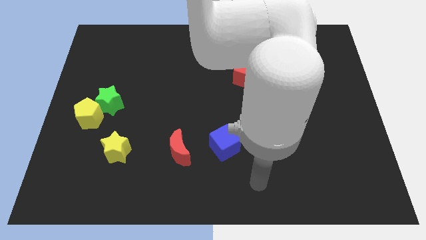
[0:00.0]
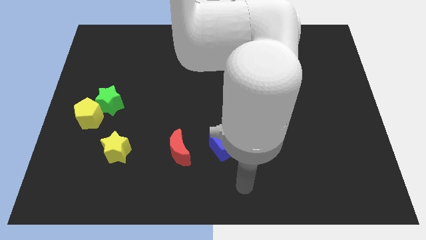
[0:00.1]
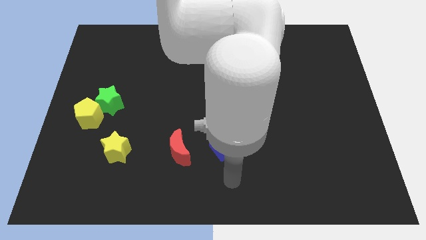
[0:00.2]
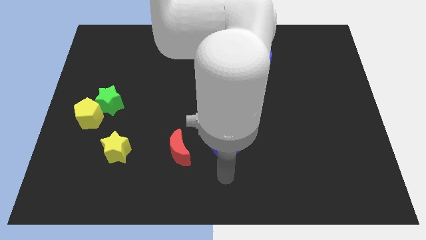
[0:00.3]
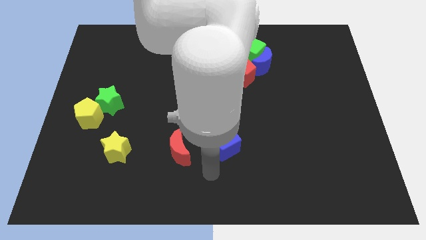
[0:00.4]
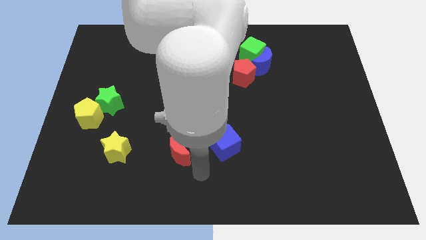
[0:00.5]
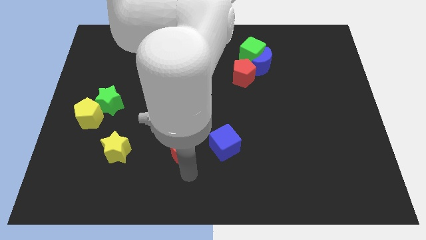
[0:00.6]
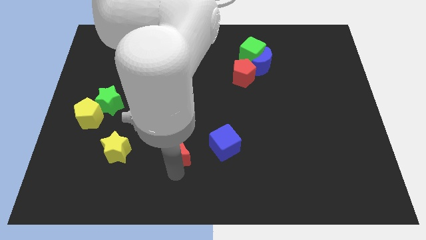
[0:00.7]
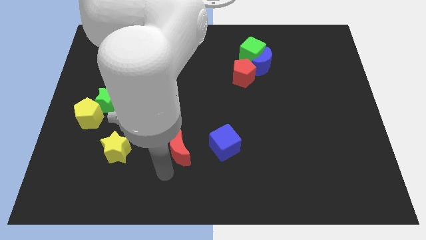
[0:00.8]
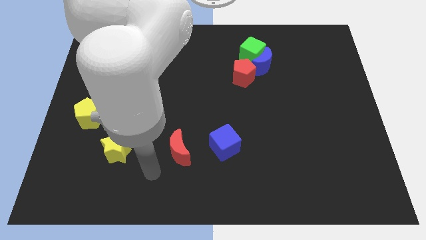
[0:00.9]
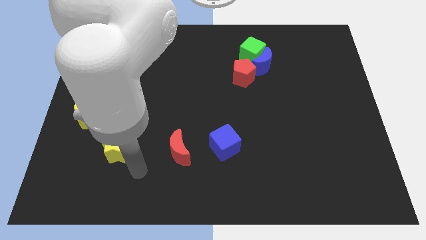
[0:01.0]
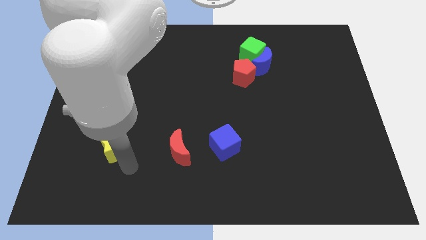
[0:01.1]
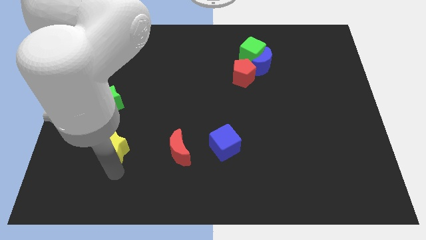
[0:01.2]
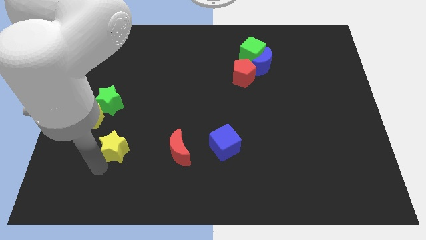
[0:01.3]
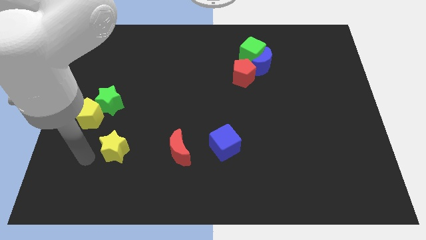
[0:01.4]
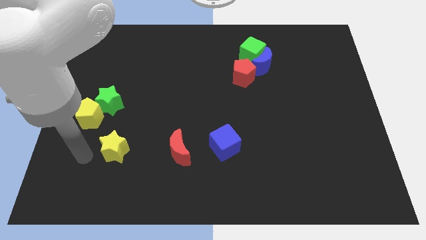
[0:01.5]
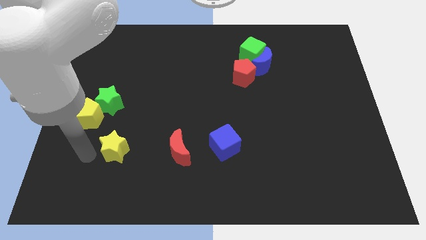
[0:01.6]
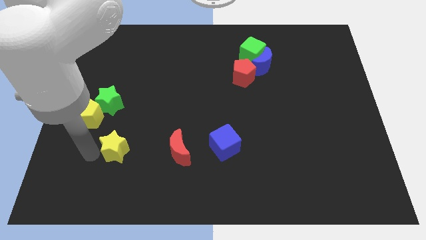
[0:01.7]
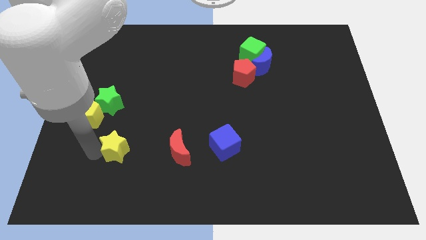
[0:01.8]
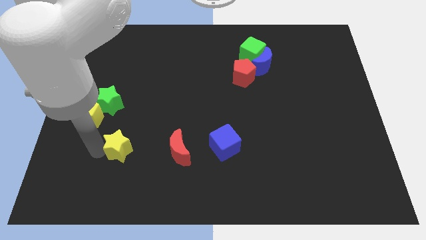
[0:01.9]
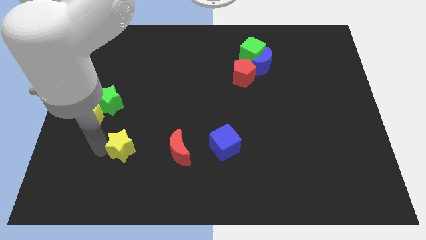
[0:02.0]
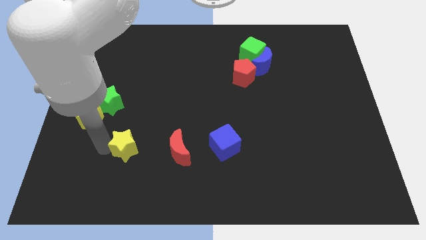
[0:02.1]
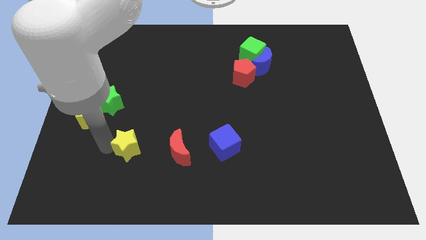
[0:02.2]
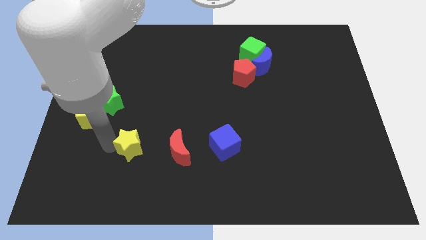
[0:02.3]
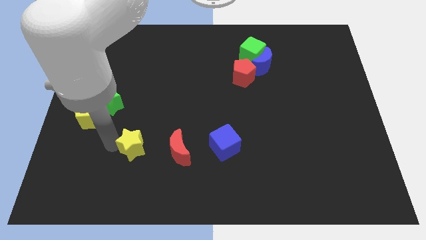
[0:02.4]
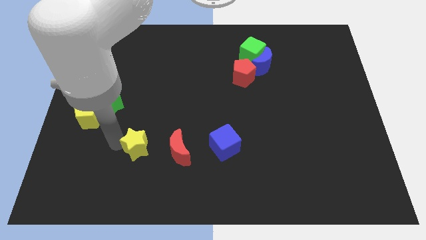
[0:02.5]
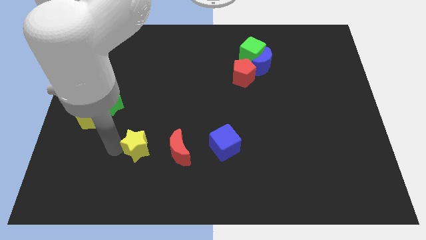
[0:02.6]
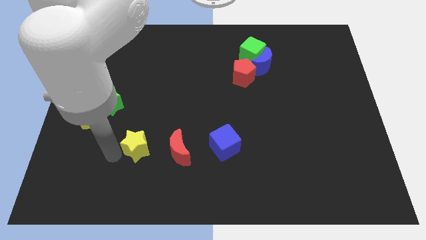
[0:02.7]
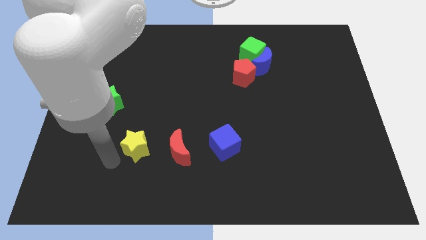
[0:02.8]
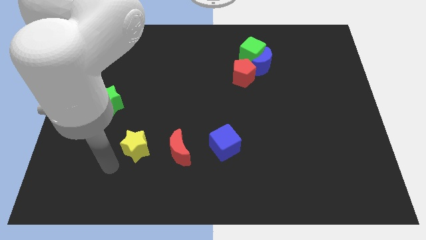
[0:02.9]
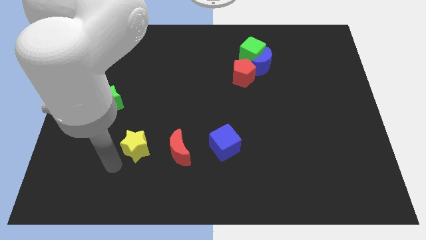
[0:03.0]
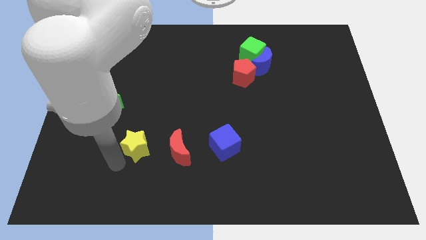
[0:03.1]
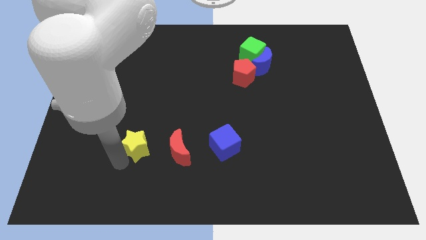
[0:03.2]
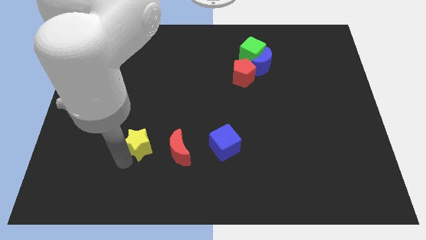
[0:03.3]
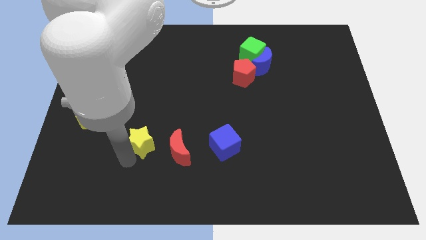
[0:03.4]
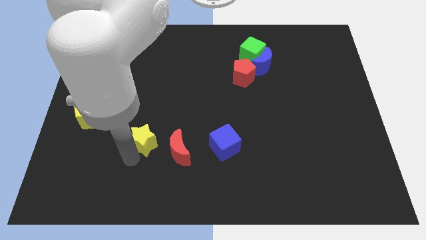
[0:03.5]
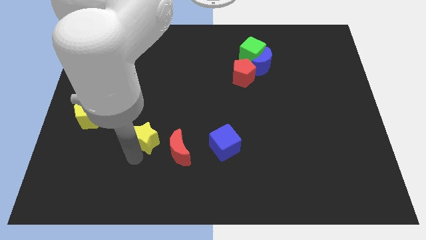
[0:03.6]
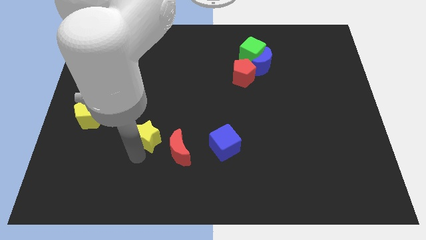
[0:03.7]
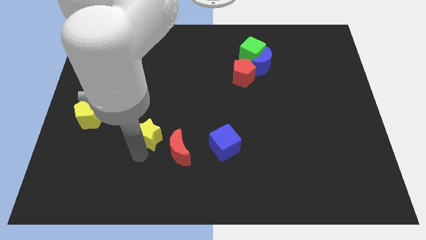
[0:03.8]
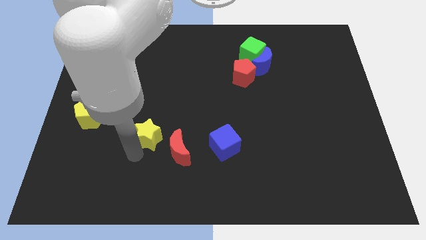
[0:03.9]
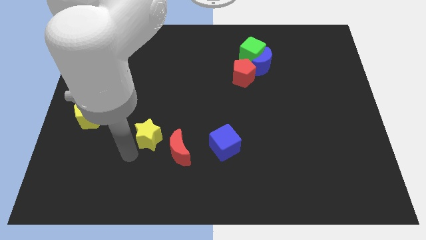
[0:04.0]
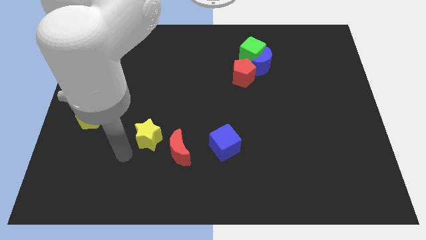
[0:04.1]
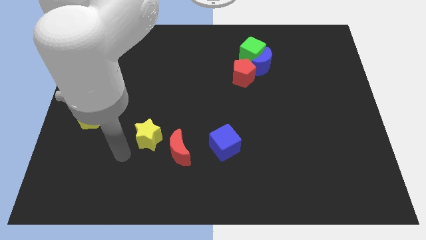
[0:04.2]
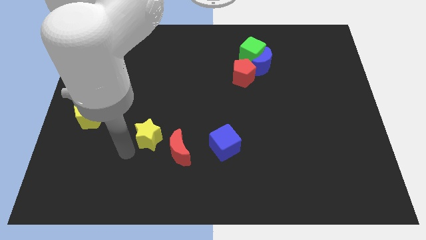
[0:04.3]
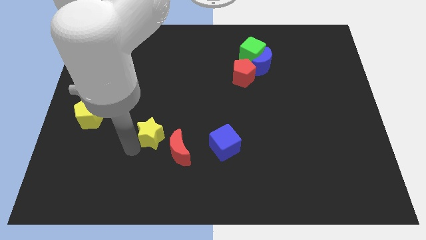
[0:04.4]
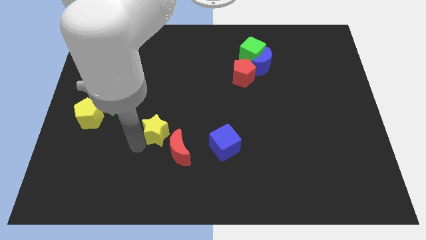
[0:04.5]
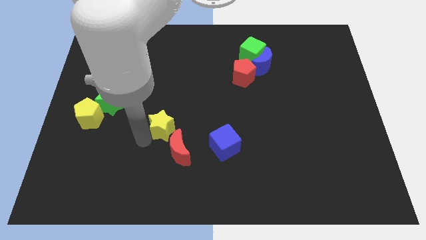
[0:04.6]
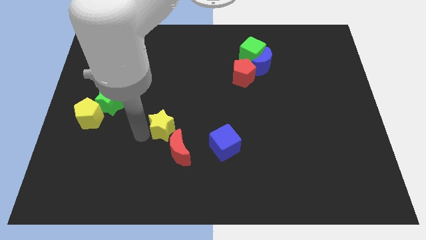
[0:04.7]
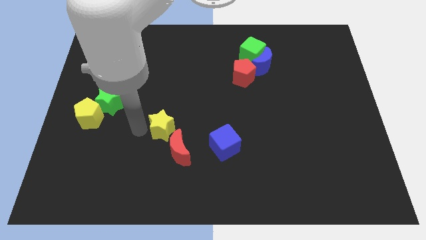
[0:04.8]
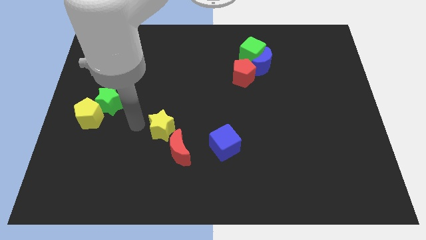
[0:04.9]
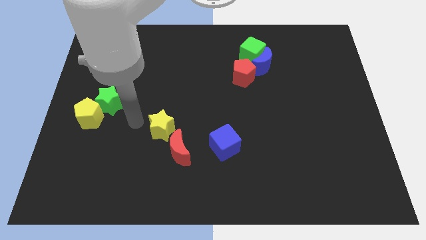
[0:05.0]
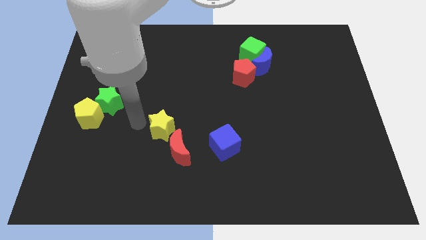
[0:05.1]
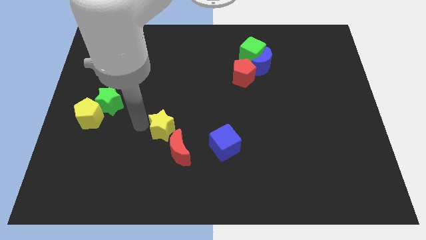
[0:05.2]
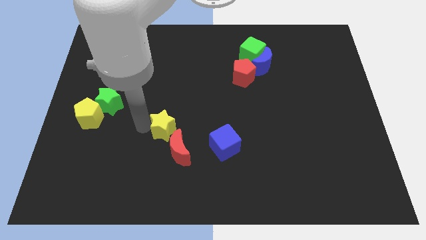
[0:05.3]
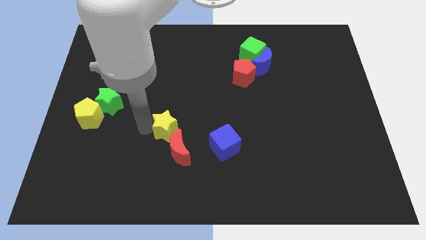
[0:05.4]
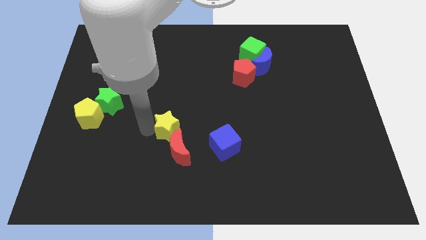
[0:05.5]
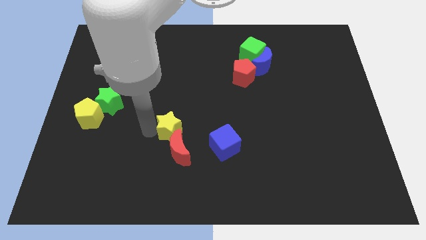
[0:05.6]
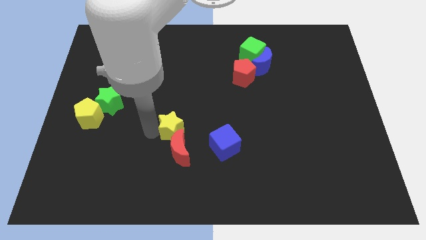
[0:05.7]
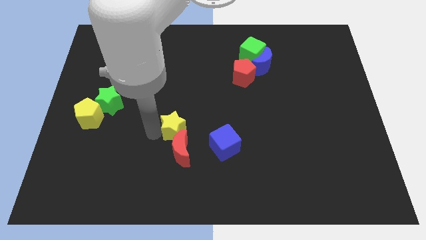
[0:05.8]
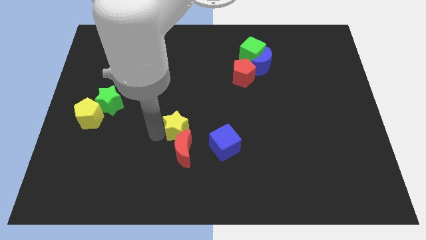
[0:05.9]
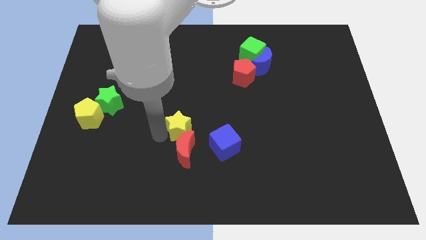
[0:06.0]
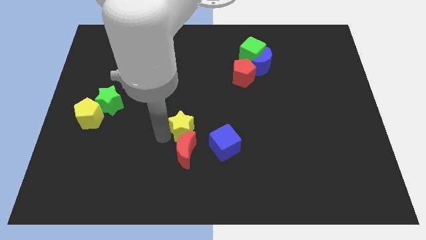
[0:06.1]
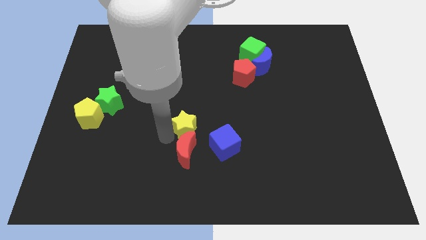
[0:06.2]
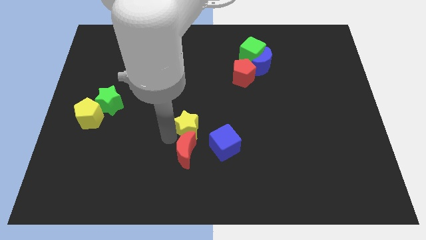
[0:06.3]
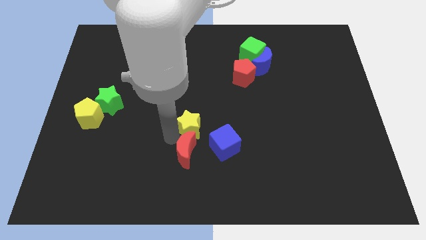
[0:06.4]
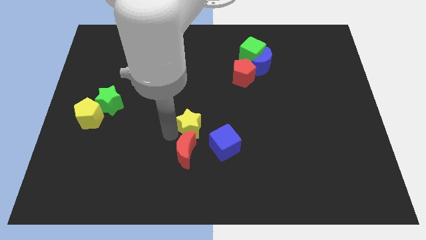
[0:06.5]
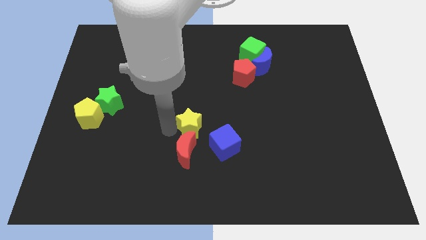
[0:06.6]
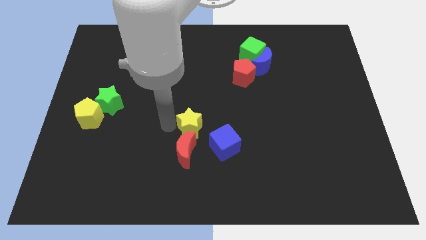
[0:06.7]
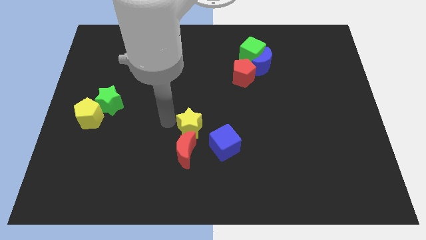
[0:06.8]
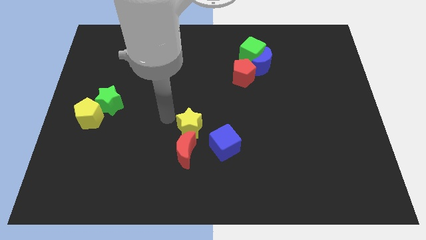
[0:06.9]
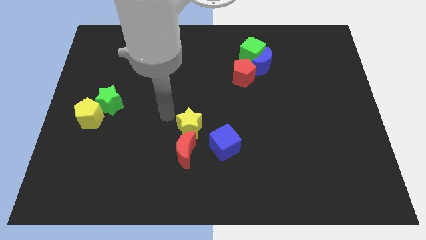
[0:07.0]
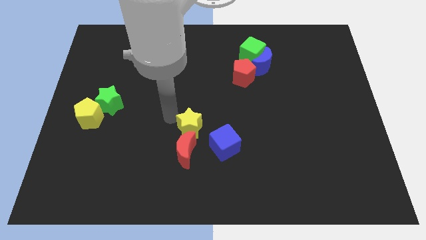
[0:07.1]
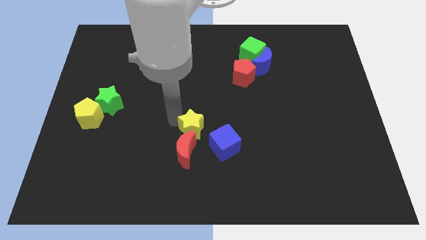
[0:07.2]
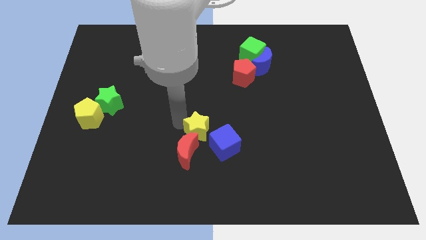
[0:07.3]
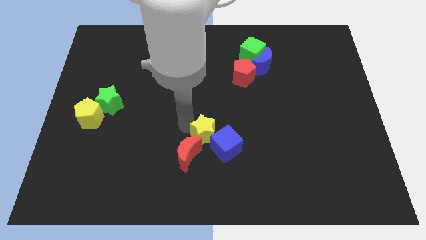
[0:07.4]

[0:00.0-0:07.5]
push the yellow star towards the blue cube

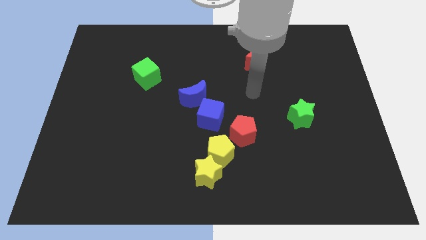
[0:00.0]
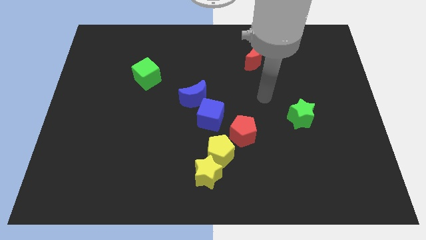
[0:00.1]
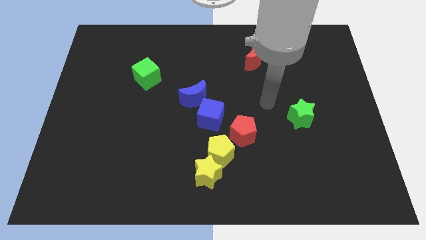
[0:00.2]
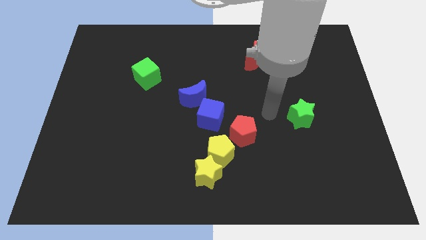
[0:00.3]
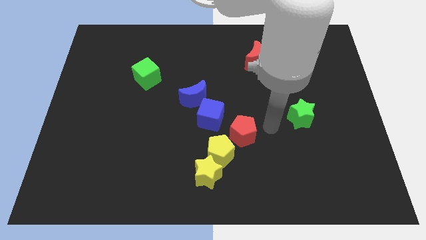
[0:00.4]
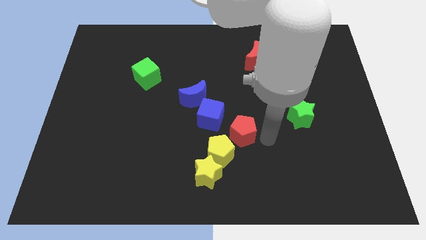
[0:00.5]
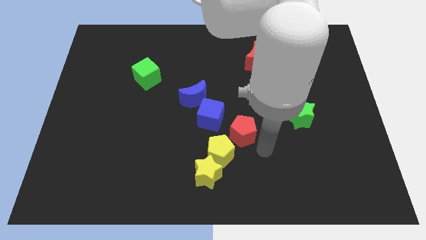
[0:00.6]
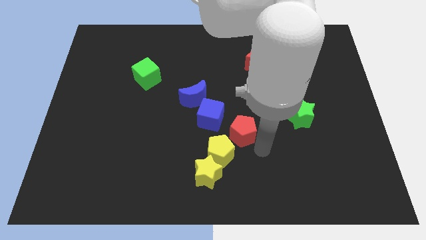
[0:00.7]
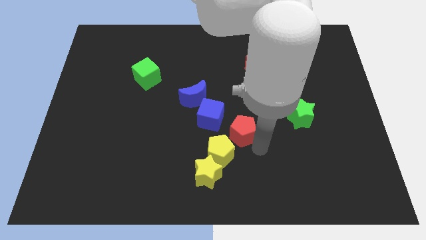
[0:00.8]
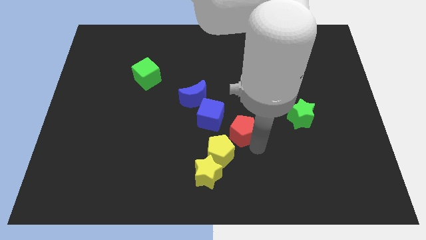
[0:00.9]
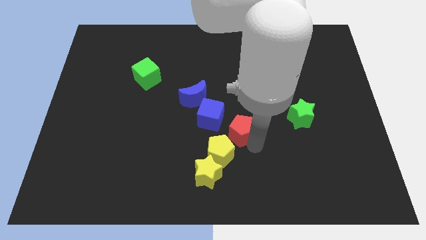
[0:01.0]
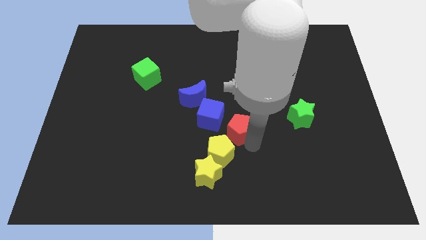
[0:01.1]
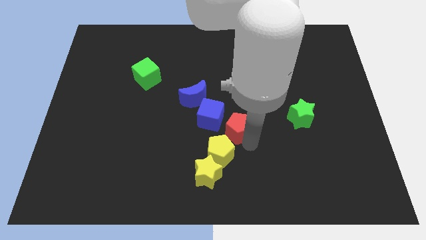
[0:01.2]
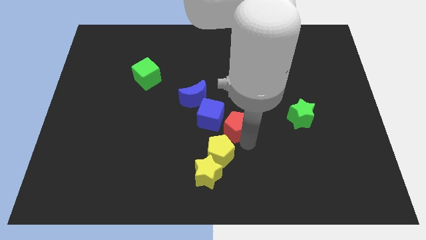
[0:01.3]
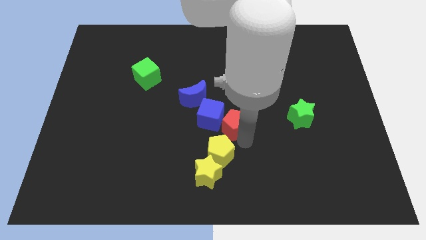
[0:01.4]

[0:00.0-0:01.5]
put the red pentagon towards the blue cube
